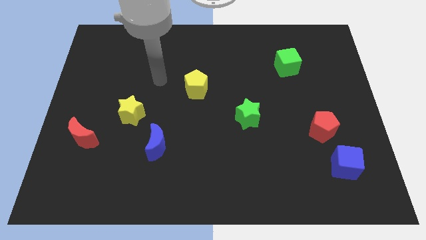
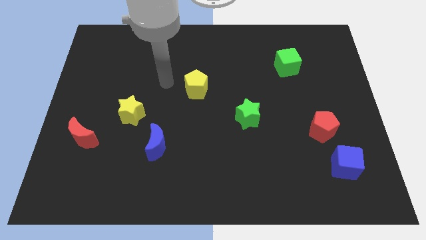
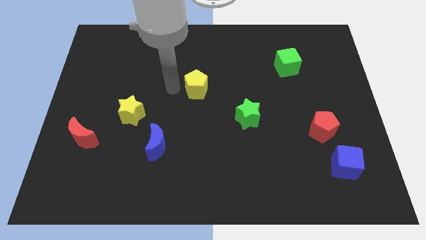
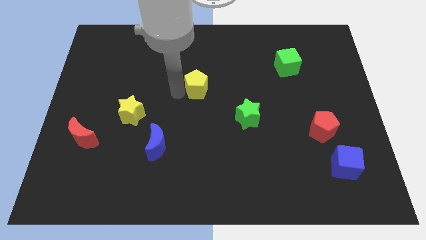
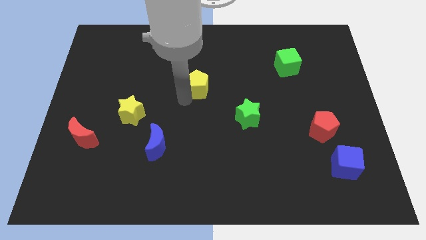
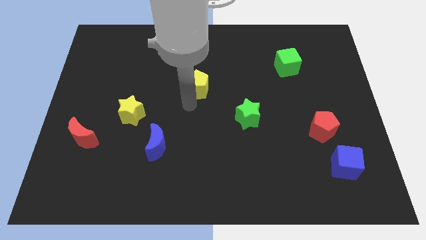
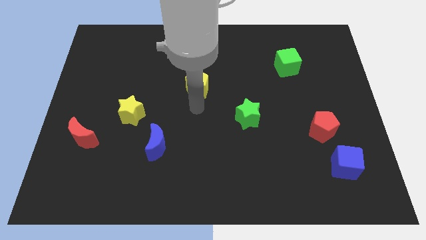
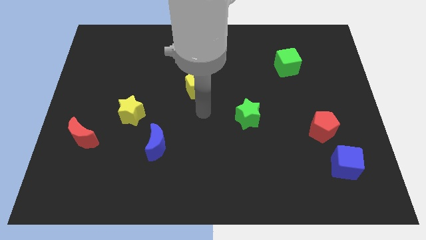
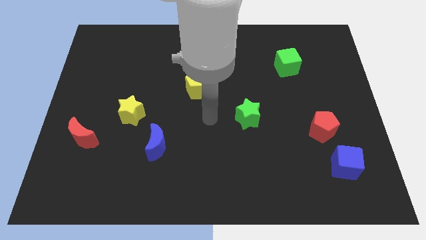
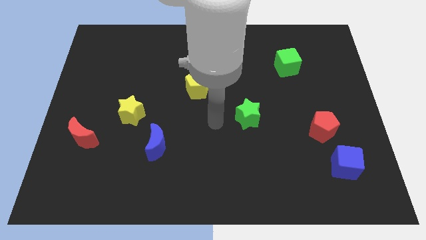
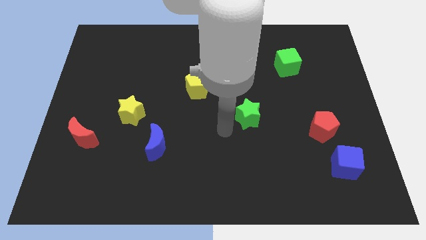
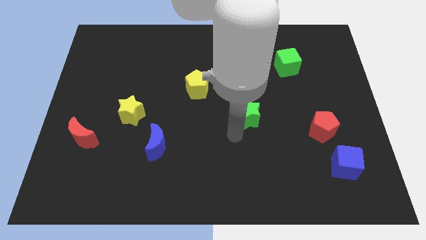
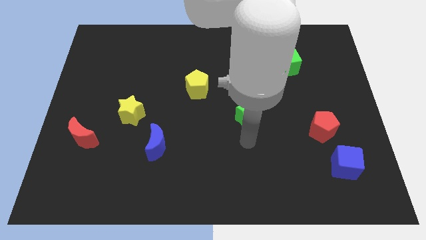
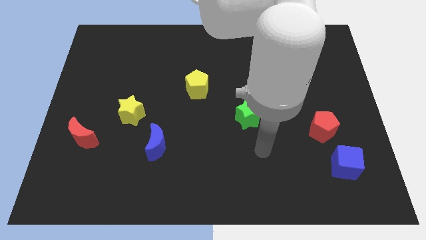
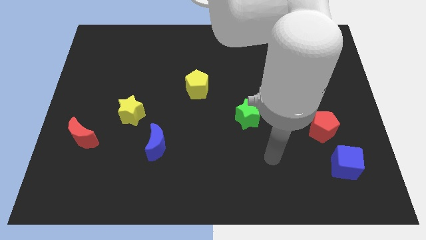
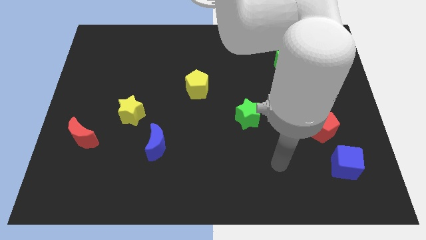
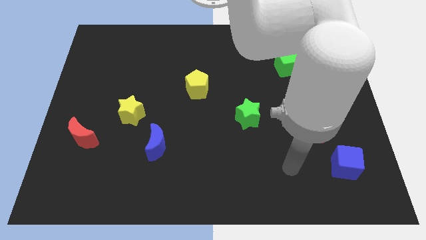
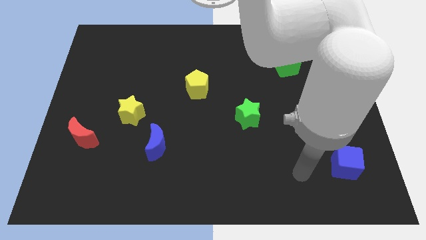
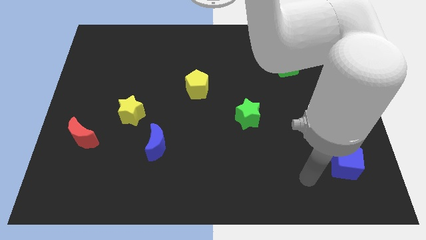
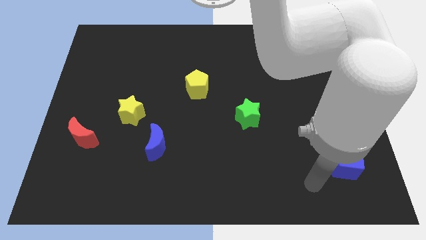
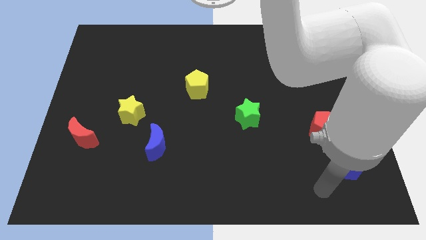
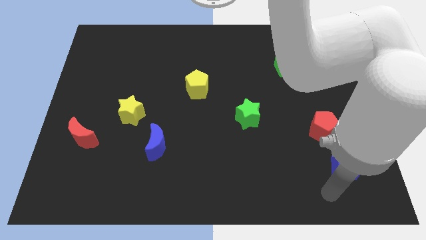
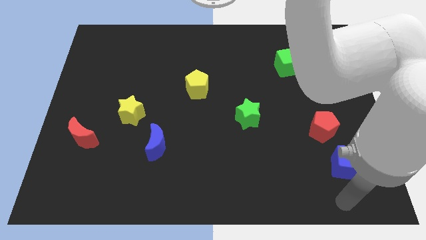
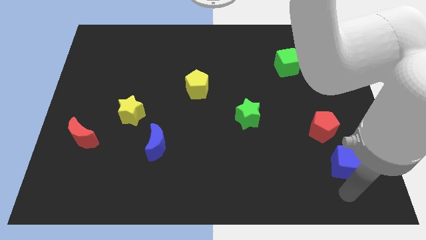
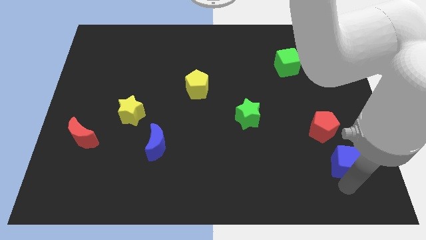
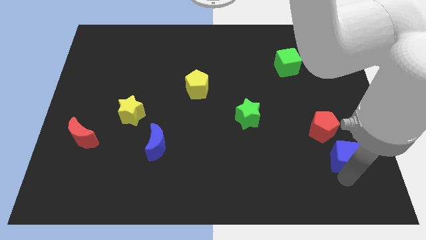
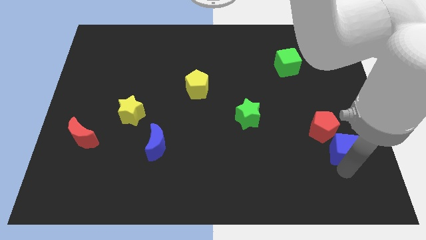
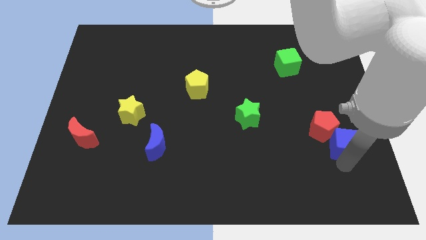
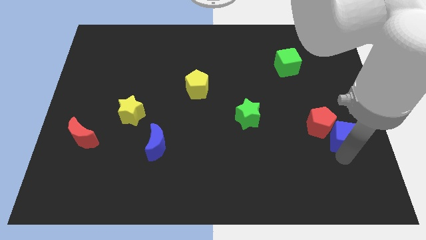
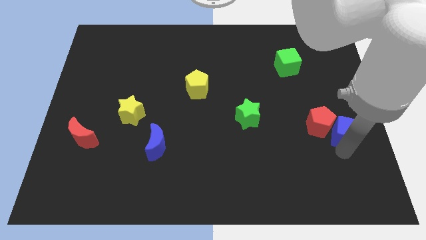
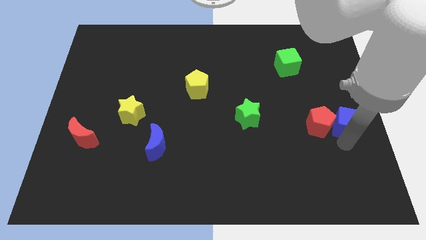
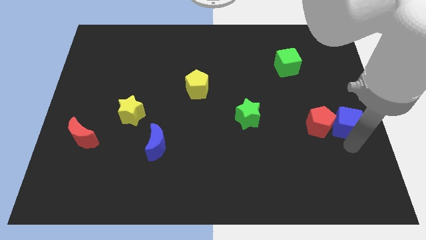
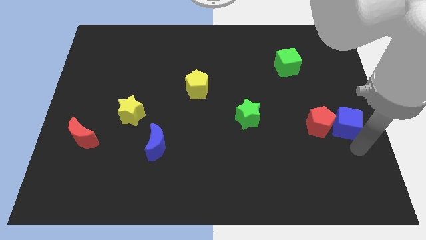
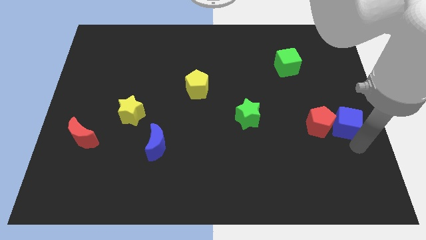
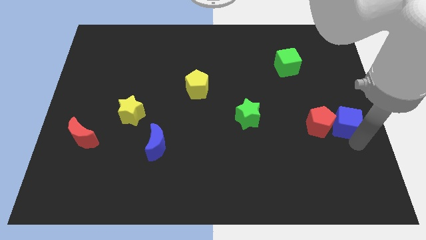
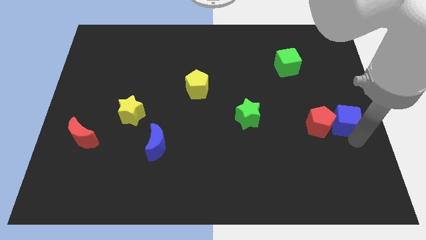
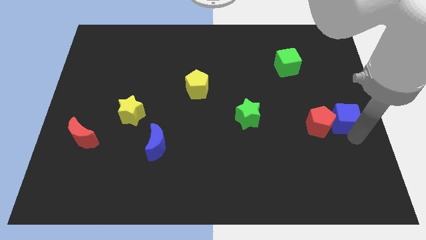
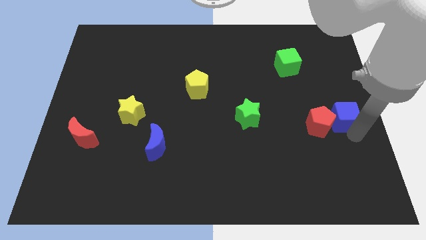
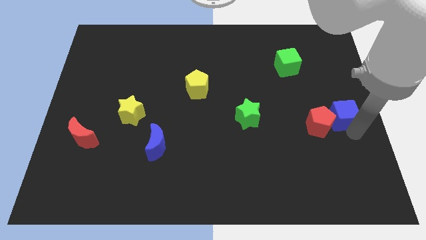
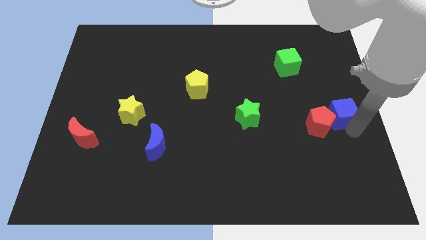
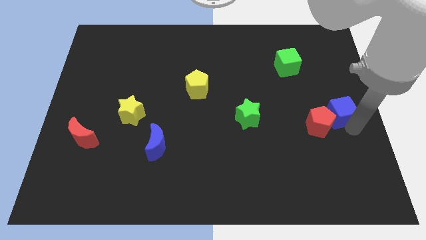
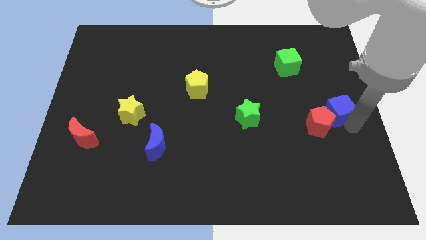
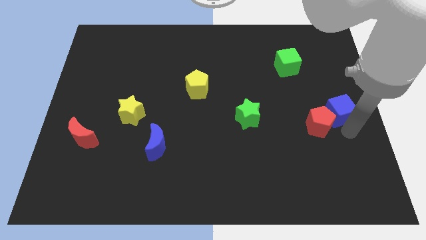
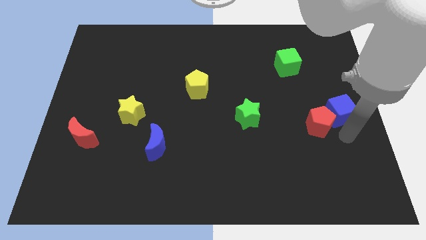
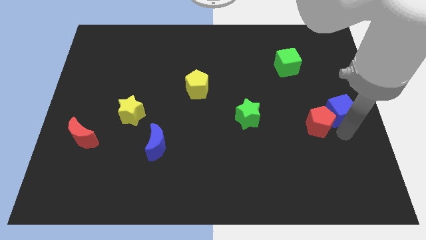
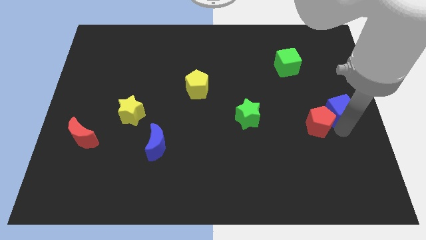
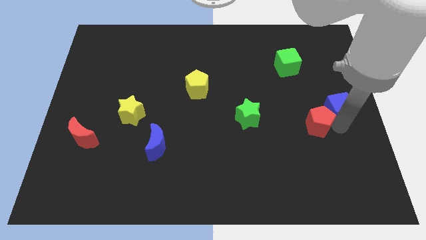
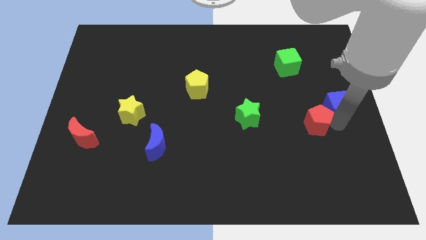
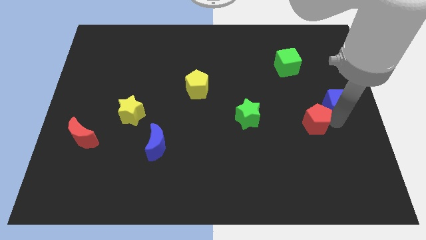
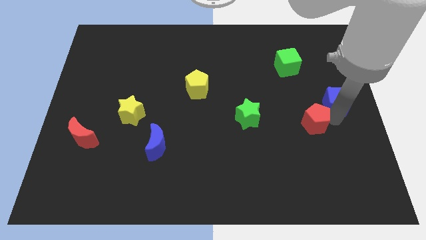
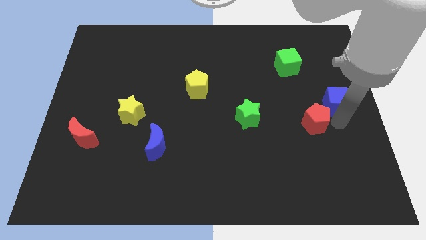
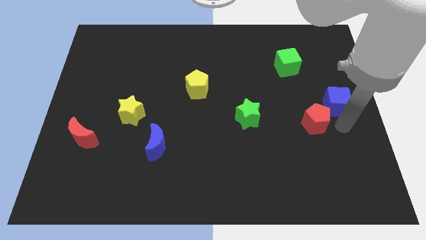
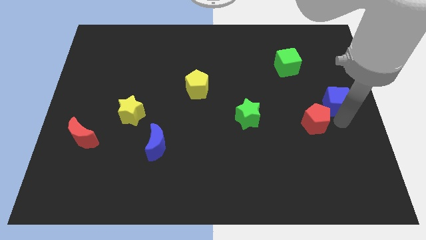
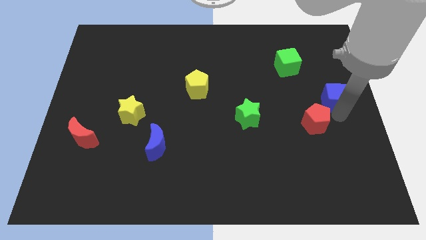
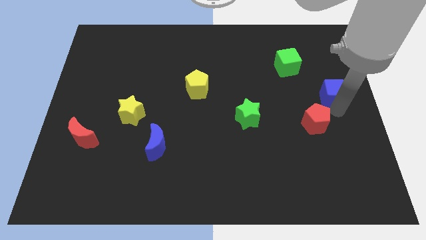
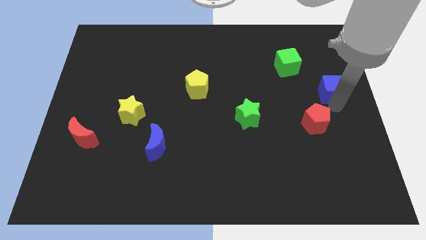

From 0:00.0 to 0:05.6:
move the blue cube up

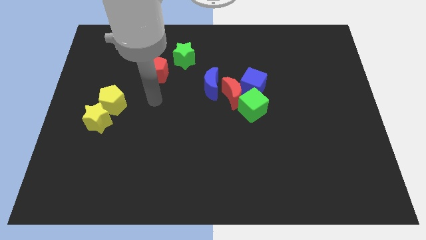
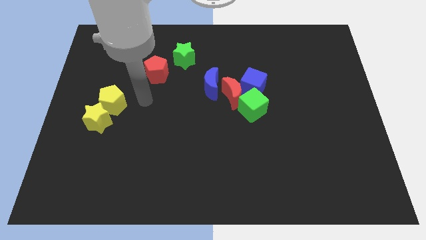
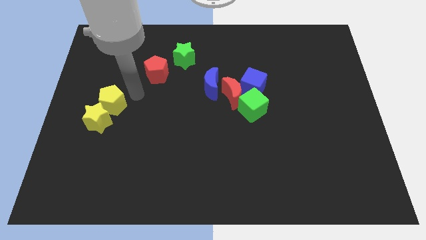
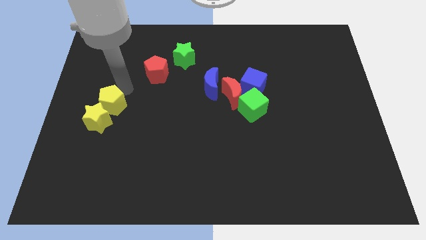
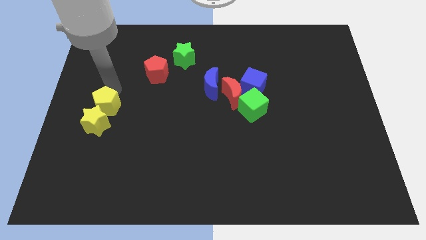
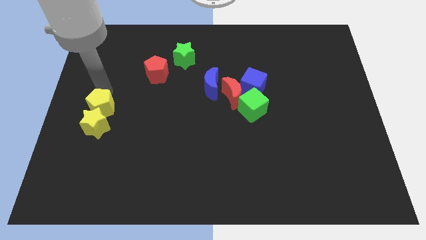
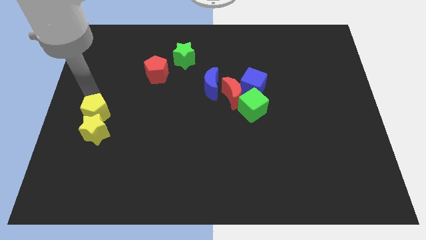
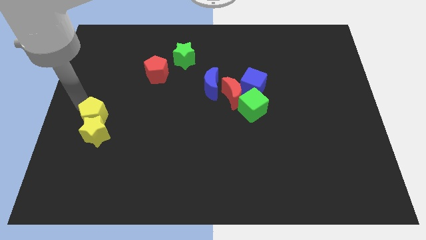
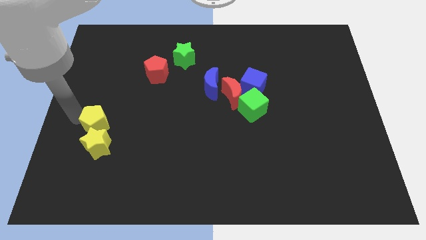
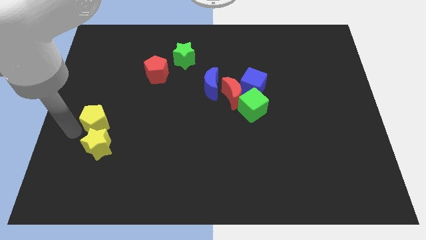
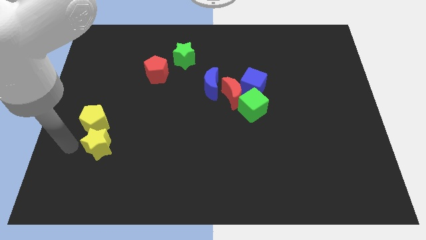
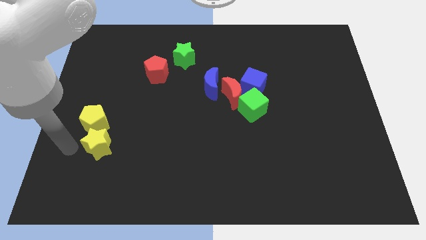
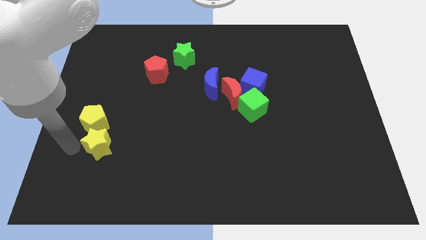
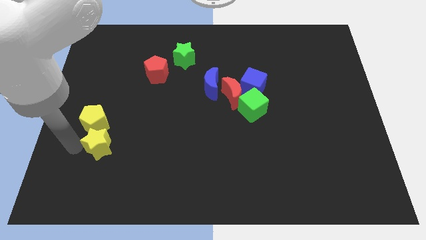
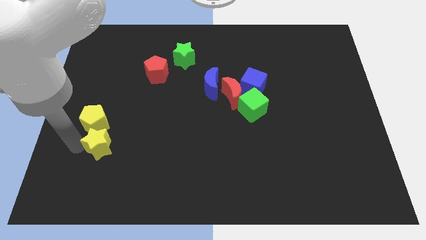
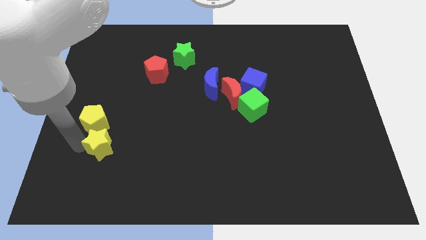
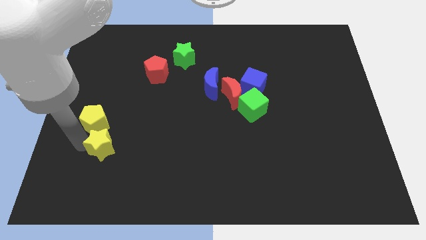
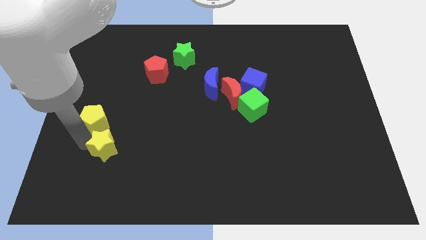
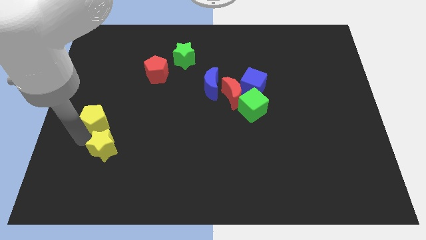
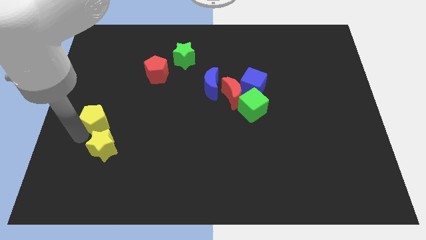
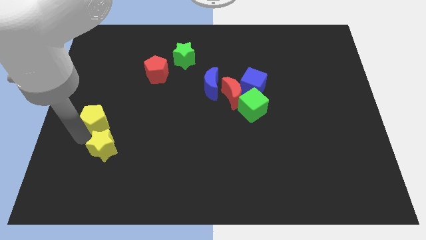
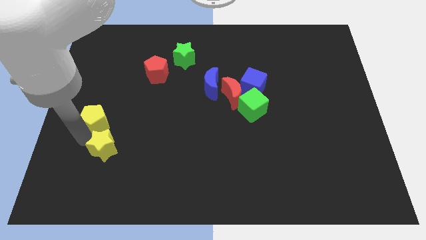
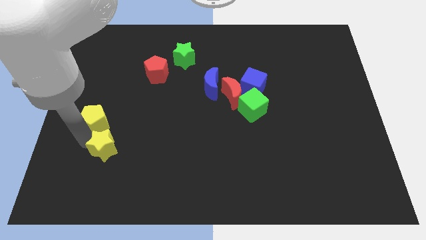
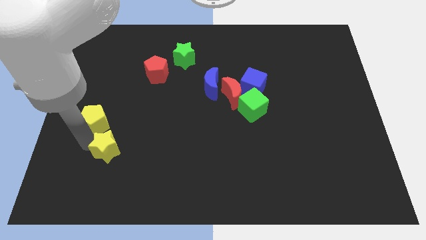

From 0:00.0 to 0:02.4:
slightly push the yellow star downwards and to the right
